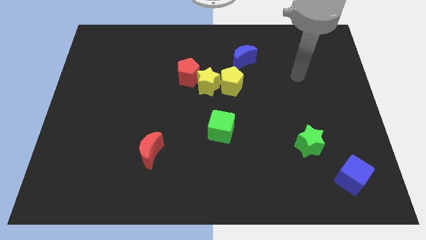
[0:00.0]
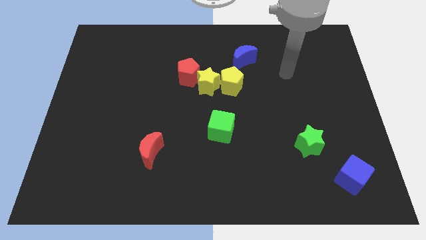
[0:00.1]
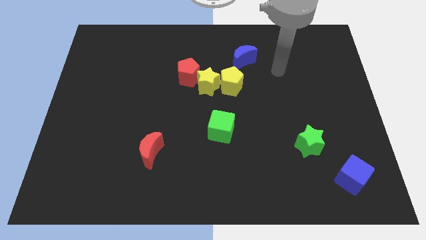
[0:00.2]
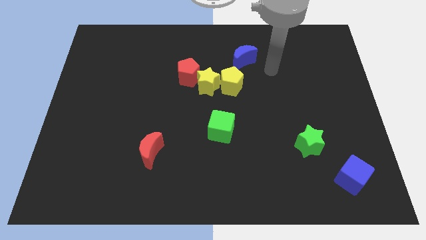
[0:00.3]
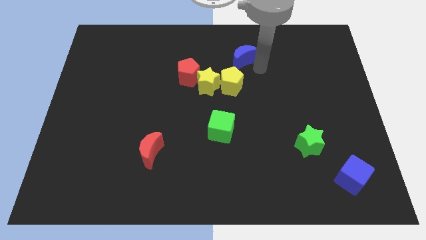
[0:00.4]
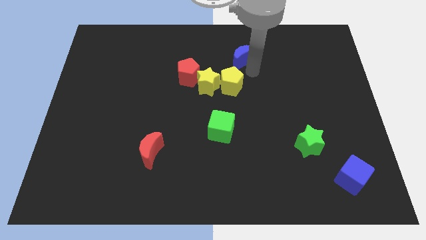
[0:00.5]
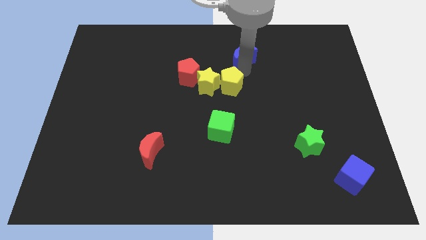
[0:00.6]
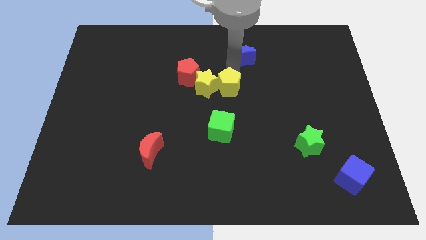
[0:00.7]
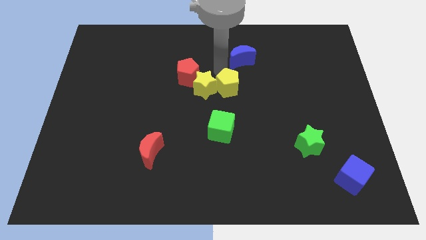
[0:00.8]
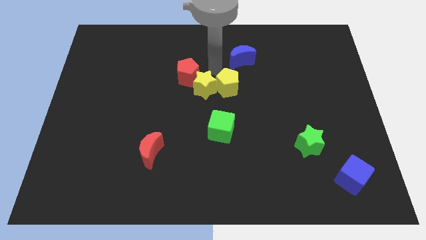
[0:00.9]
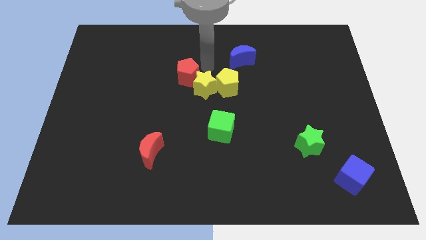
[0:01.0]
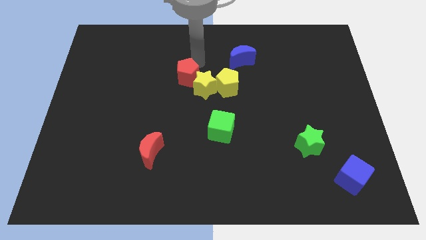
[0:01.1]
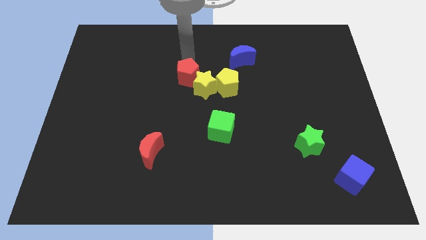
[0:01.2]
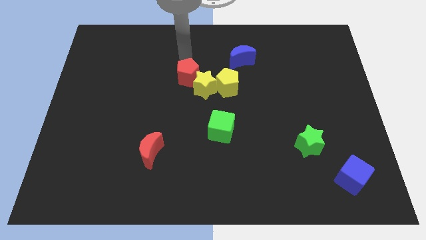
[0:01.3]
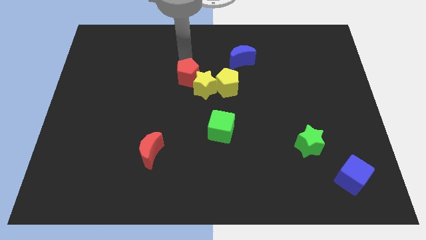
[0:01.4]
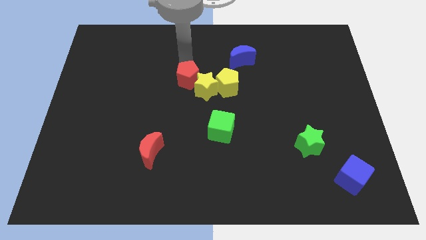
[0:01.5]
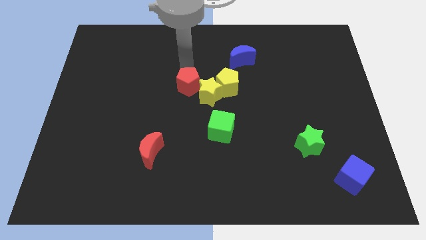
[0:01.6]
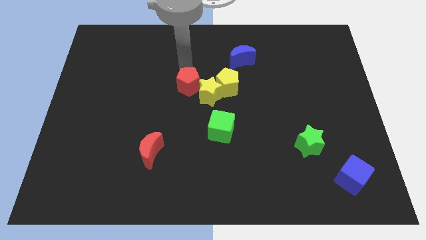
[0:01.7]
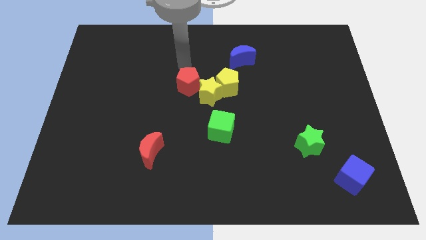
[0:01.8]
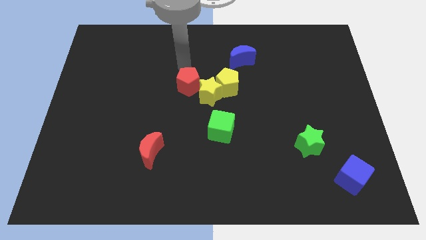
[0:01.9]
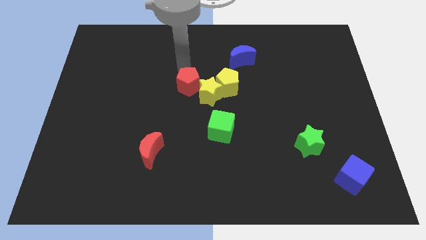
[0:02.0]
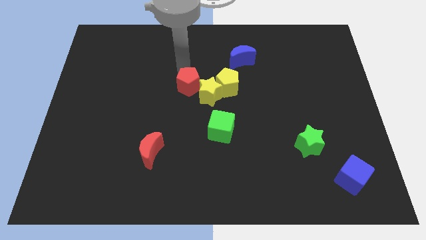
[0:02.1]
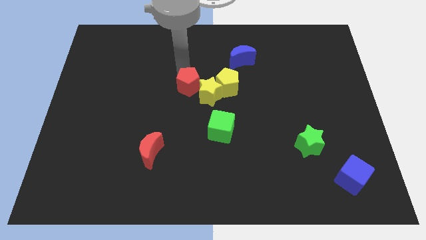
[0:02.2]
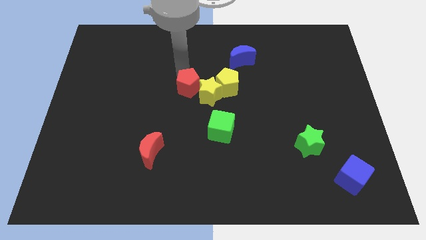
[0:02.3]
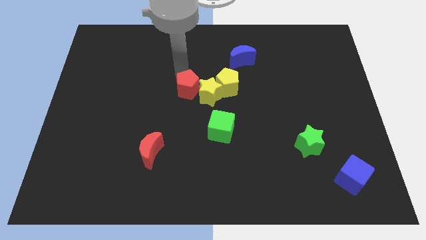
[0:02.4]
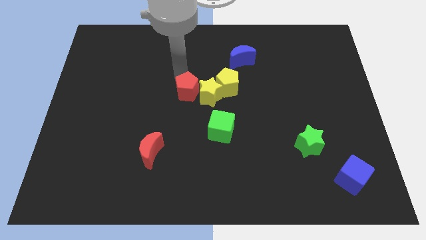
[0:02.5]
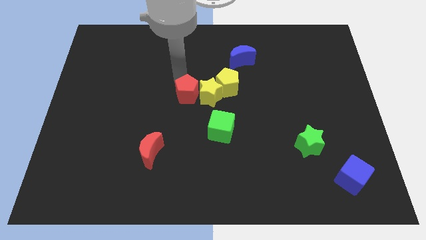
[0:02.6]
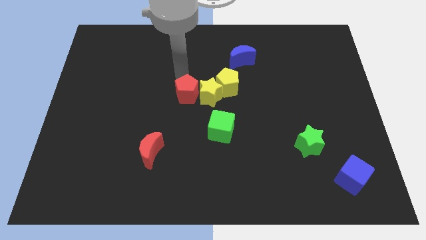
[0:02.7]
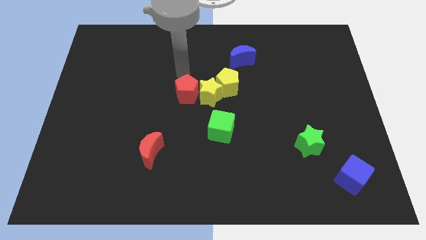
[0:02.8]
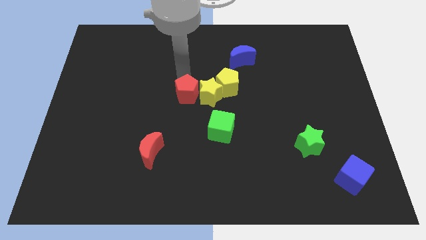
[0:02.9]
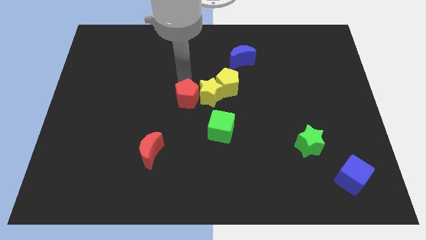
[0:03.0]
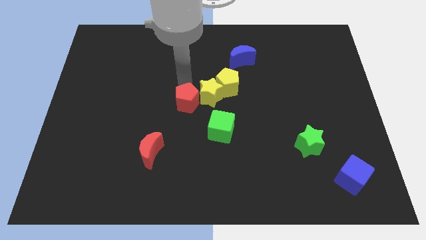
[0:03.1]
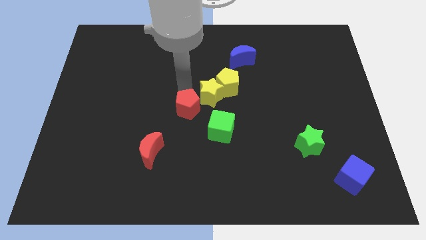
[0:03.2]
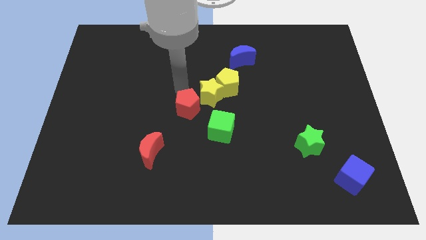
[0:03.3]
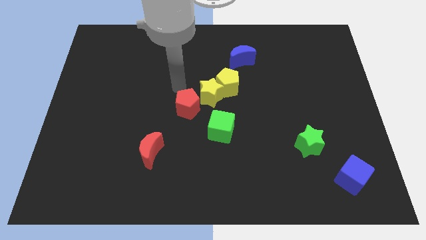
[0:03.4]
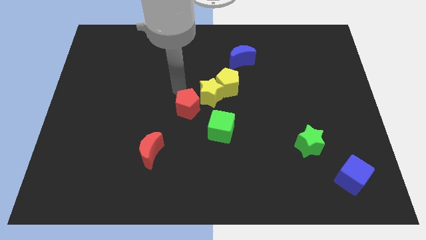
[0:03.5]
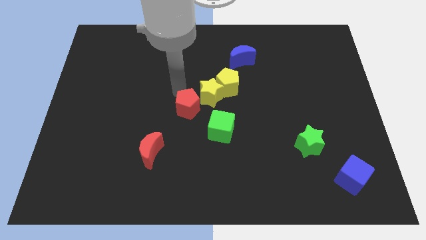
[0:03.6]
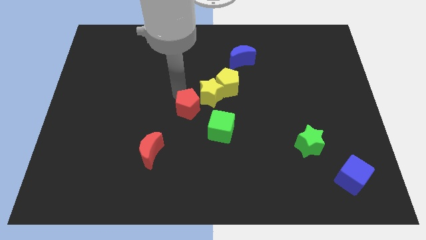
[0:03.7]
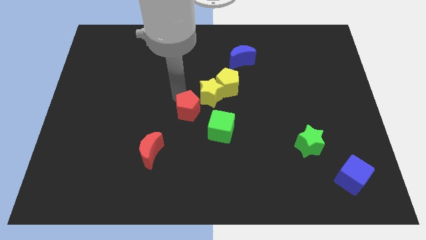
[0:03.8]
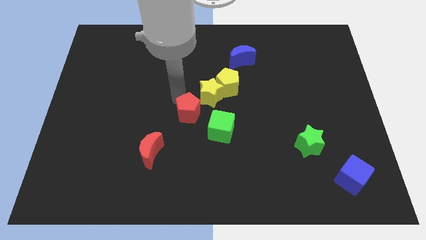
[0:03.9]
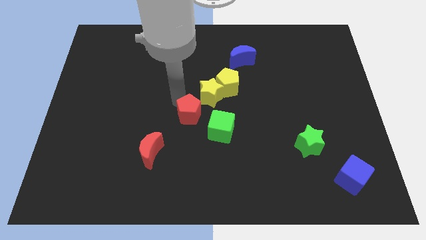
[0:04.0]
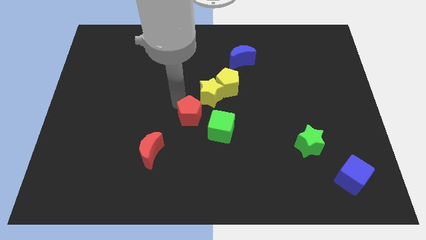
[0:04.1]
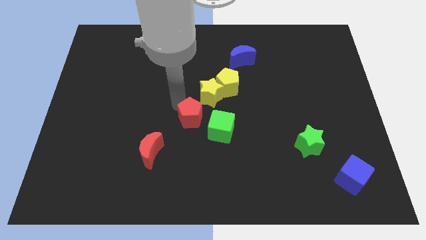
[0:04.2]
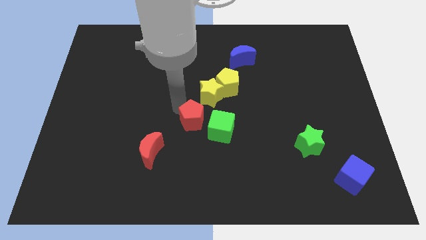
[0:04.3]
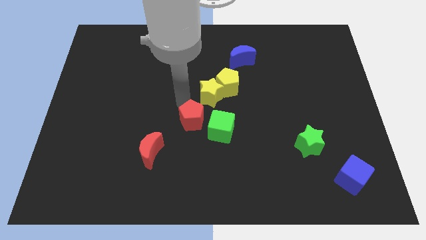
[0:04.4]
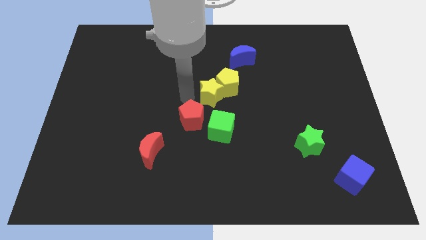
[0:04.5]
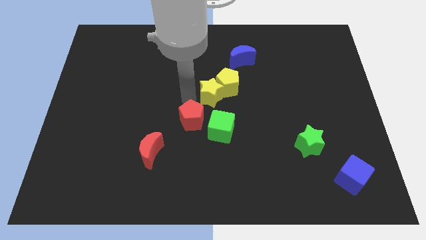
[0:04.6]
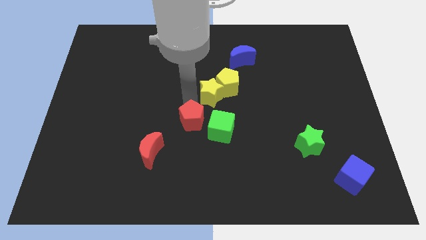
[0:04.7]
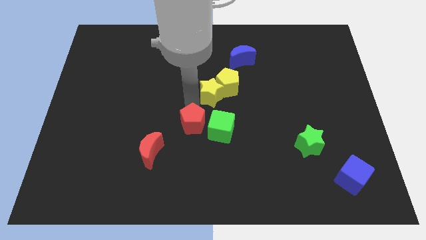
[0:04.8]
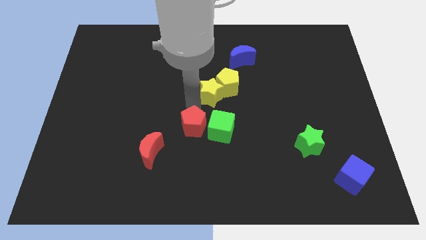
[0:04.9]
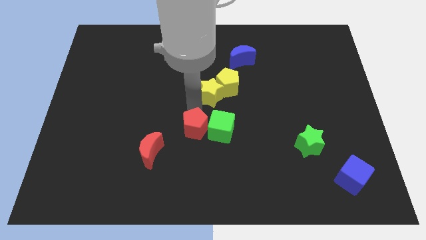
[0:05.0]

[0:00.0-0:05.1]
move the red pentagon diagonally down and to the left of the green cube

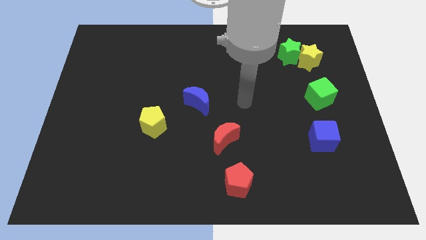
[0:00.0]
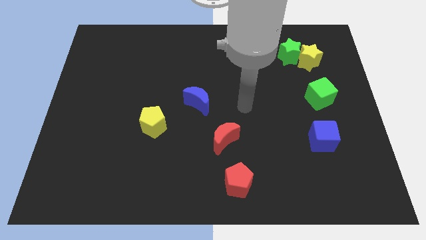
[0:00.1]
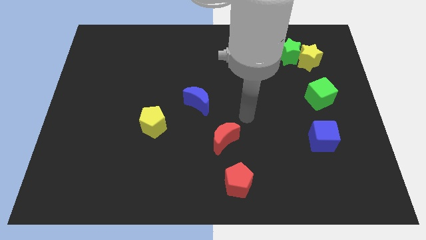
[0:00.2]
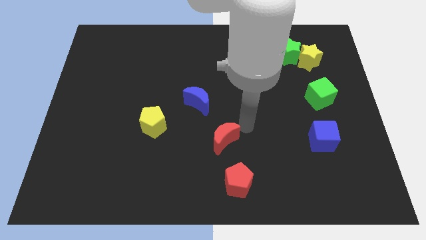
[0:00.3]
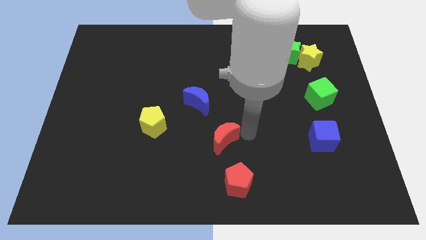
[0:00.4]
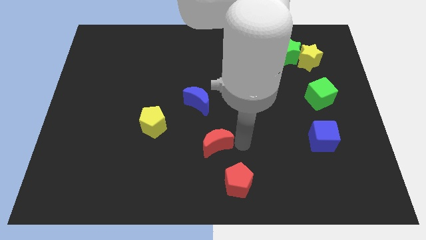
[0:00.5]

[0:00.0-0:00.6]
push the red pentagon to the bottom right side of the red moon
